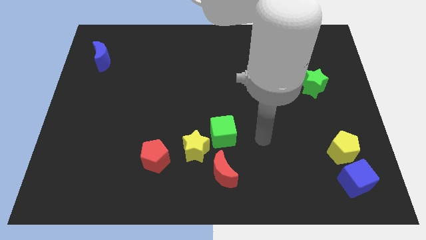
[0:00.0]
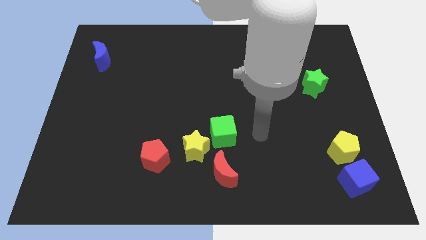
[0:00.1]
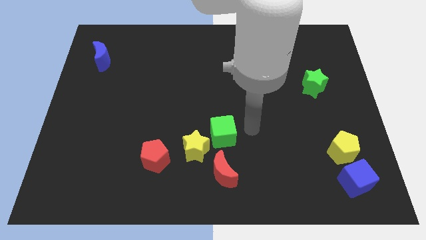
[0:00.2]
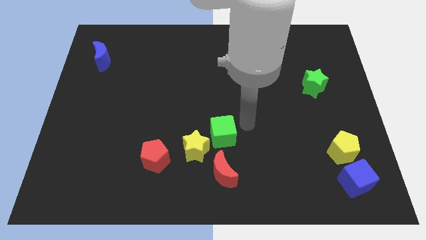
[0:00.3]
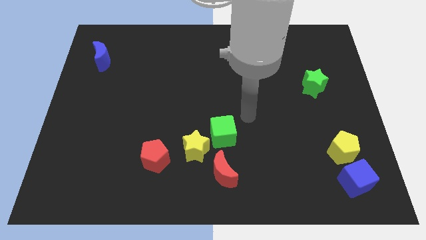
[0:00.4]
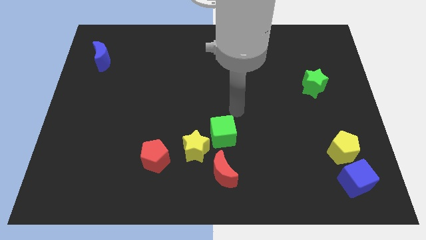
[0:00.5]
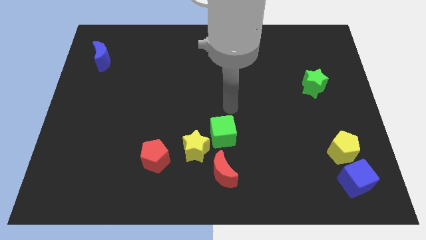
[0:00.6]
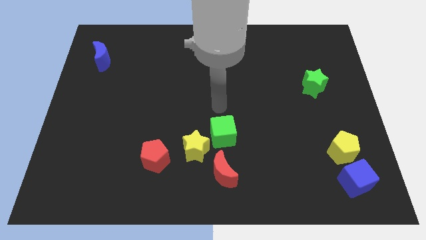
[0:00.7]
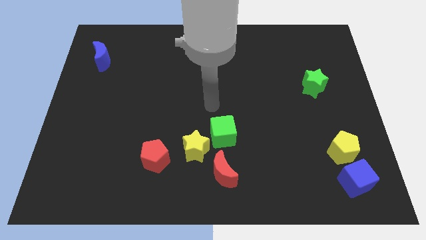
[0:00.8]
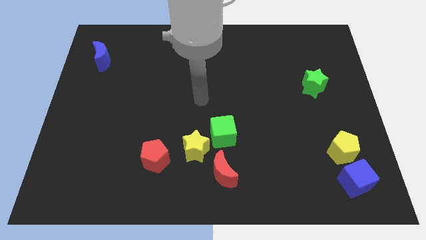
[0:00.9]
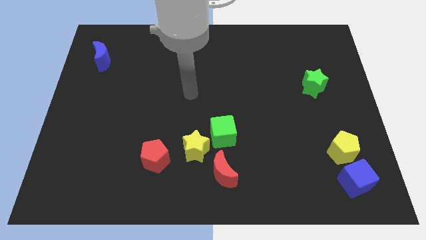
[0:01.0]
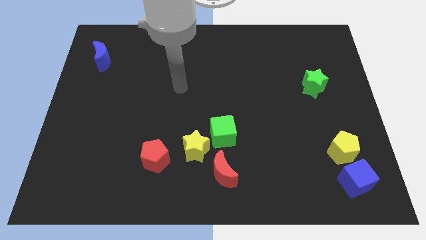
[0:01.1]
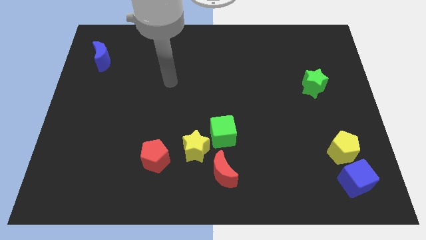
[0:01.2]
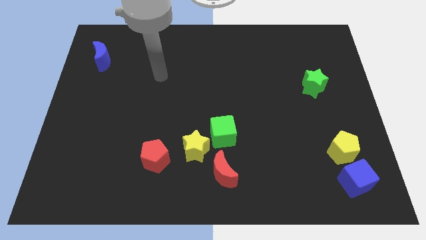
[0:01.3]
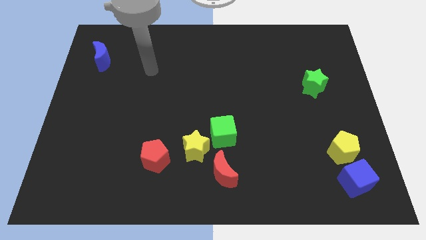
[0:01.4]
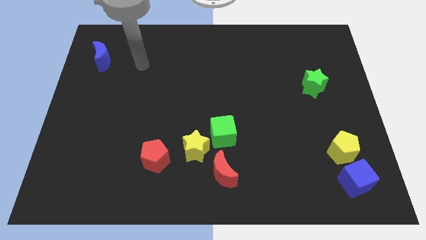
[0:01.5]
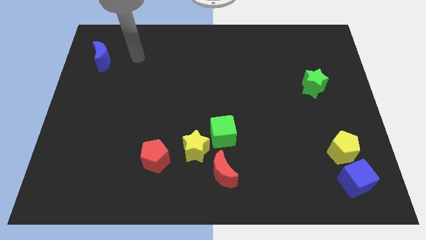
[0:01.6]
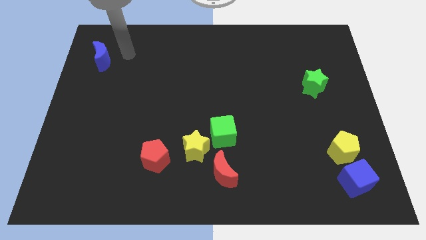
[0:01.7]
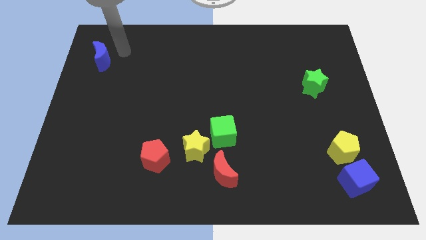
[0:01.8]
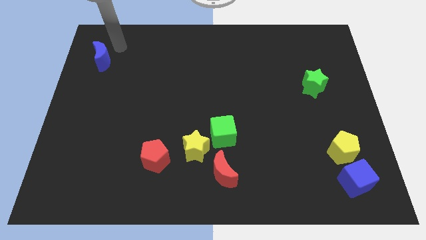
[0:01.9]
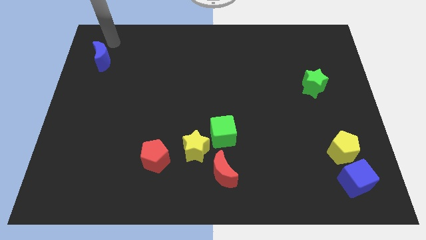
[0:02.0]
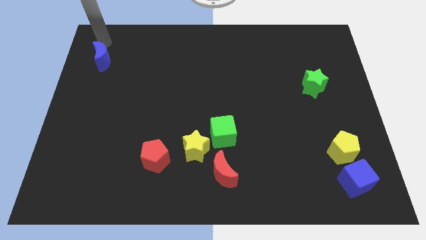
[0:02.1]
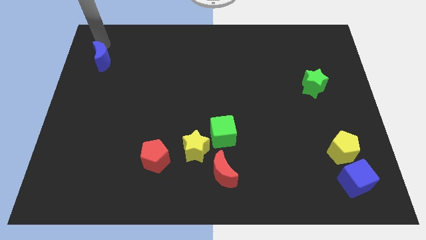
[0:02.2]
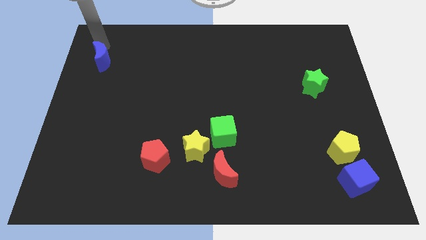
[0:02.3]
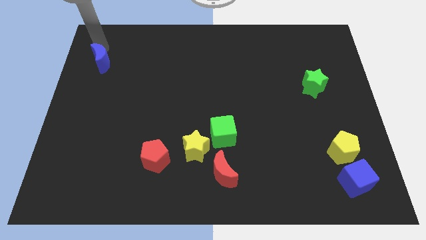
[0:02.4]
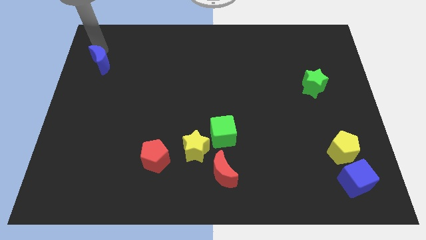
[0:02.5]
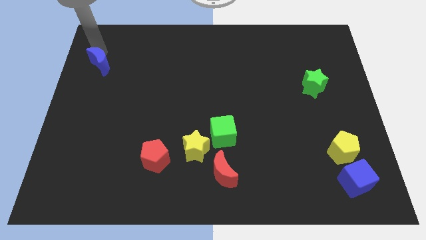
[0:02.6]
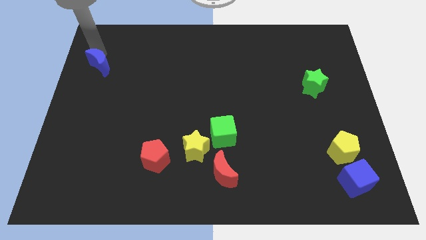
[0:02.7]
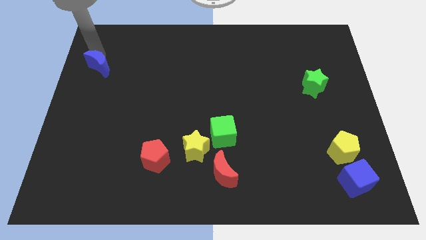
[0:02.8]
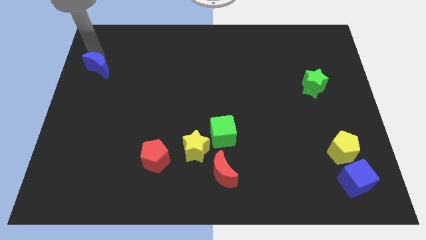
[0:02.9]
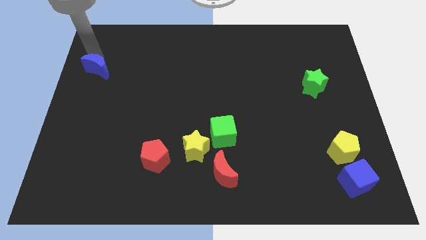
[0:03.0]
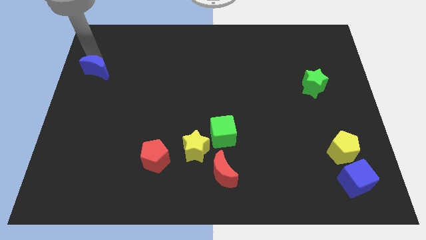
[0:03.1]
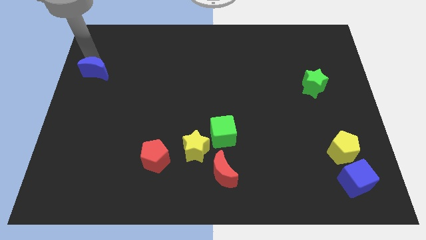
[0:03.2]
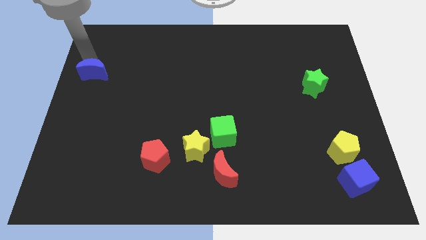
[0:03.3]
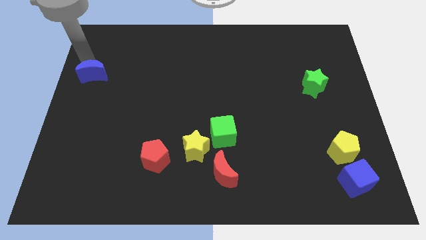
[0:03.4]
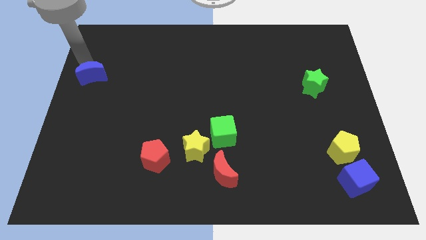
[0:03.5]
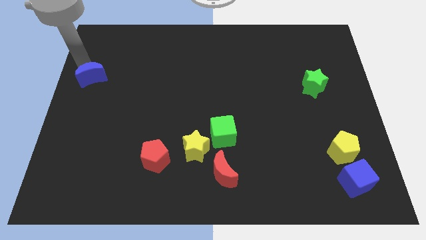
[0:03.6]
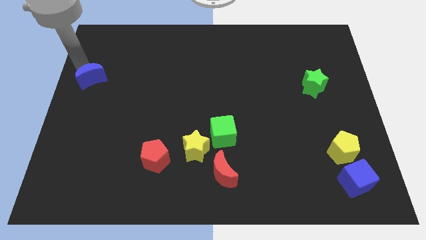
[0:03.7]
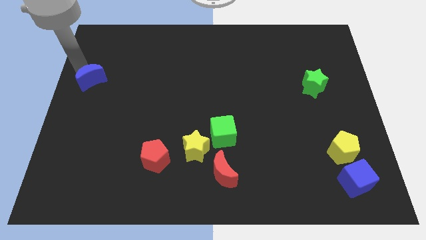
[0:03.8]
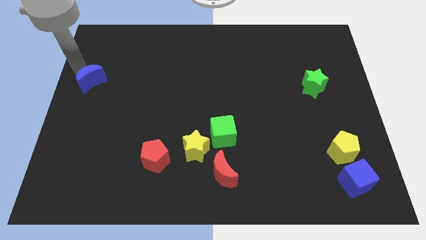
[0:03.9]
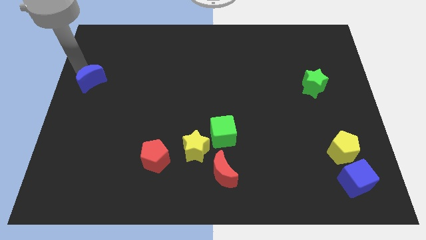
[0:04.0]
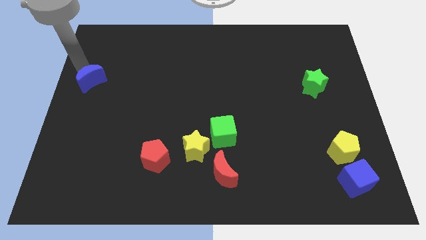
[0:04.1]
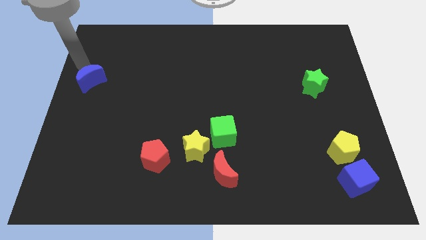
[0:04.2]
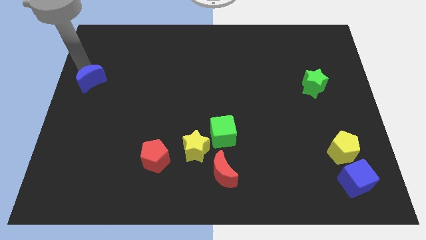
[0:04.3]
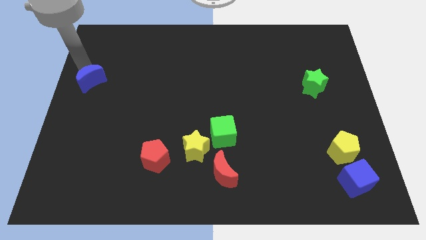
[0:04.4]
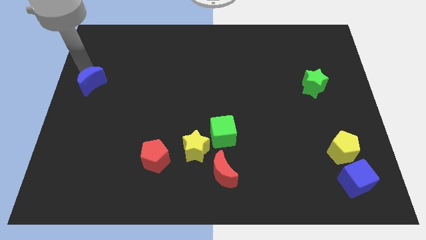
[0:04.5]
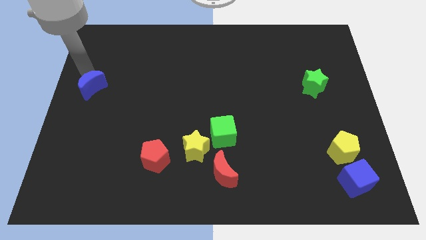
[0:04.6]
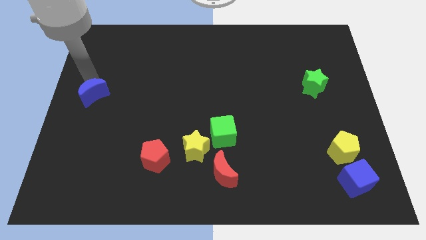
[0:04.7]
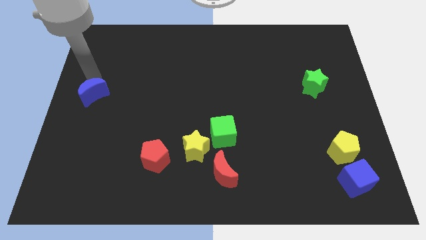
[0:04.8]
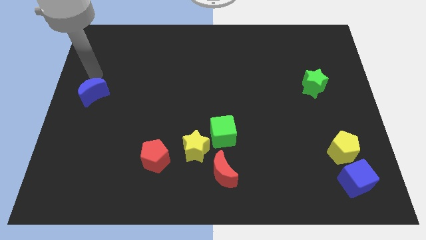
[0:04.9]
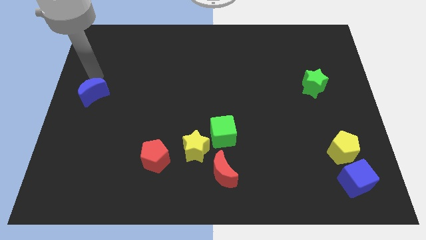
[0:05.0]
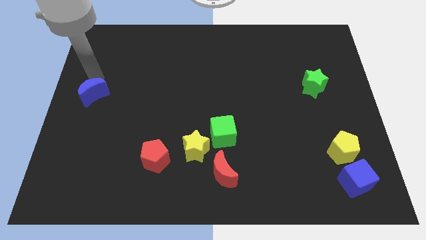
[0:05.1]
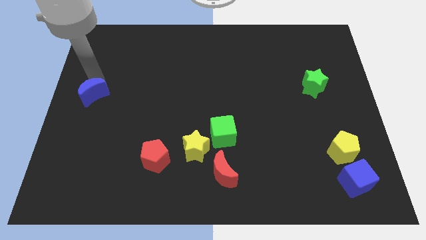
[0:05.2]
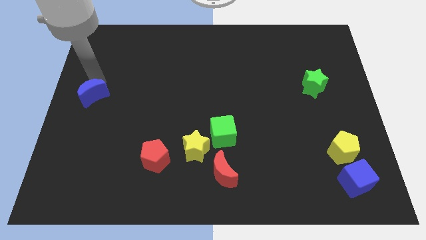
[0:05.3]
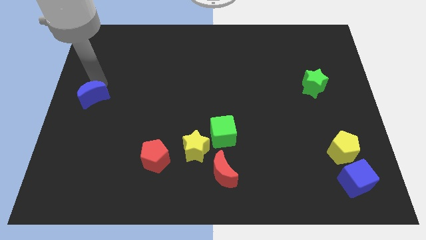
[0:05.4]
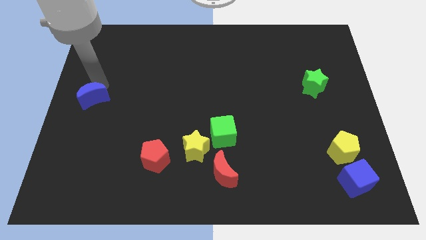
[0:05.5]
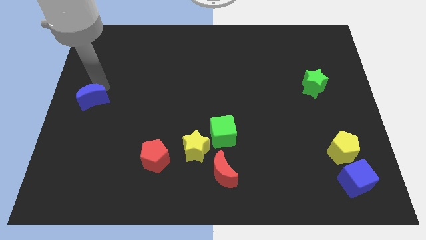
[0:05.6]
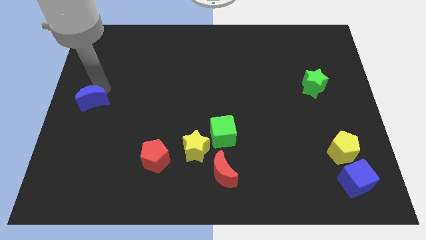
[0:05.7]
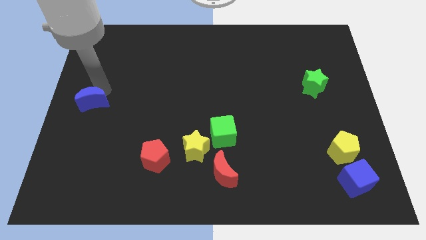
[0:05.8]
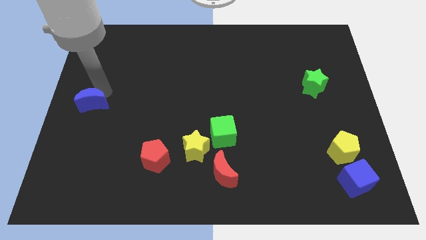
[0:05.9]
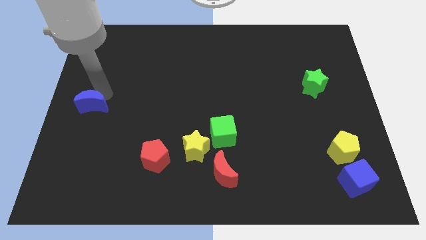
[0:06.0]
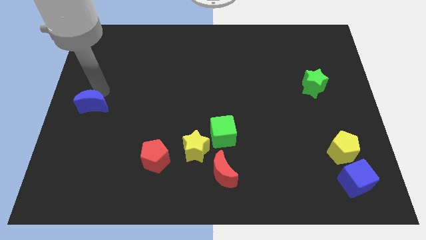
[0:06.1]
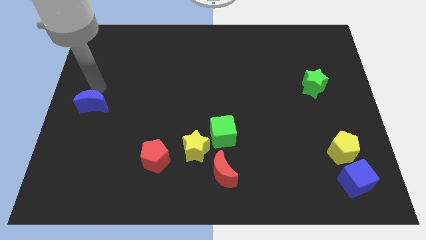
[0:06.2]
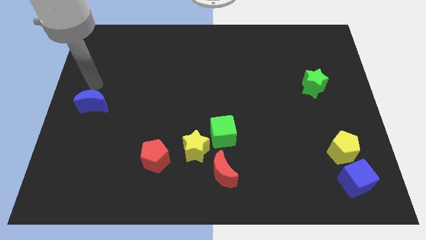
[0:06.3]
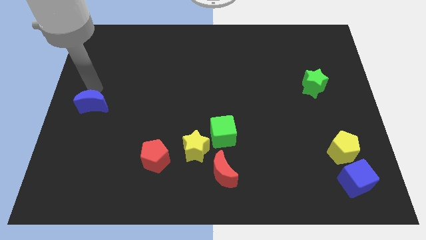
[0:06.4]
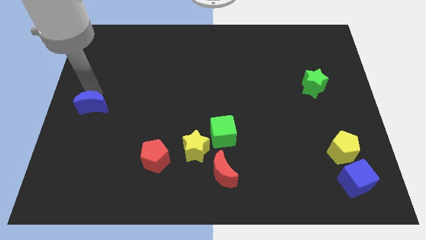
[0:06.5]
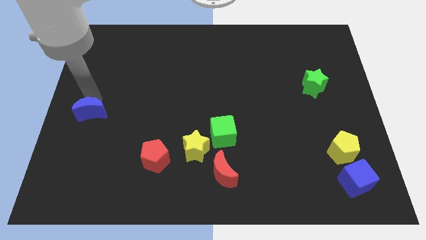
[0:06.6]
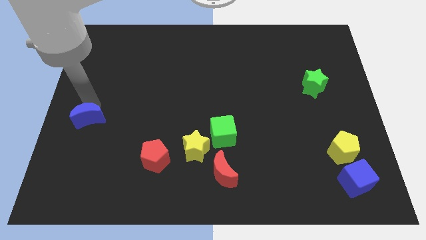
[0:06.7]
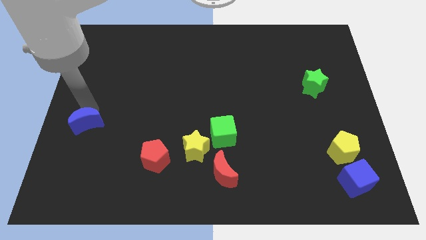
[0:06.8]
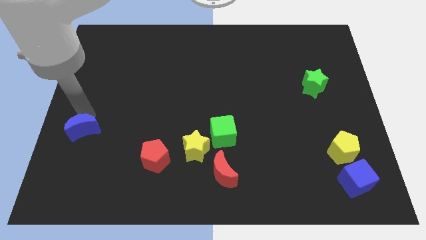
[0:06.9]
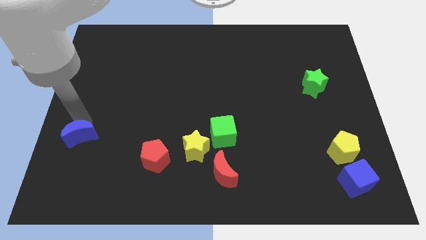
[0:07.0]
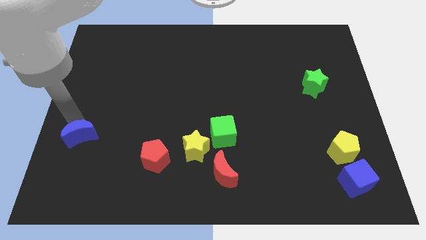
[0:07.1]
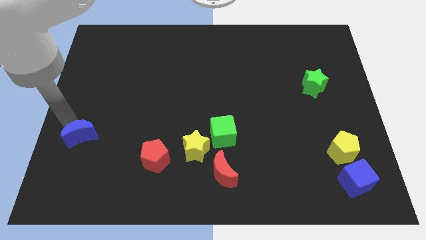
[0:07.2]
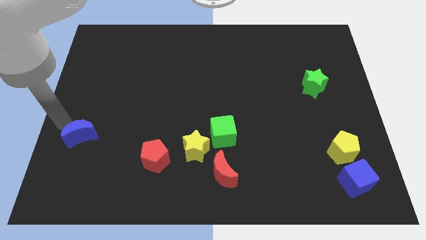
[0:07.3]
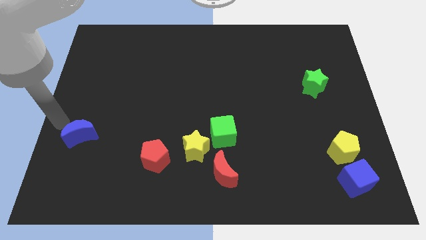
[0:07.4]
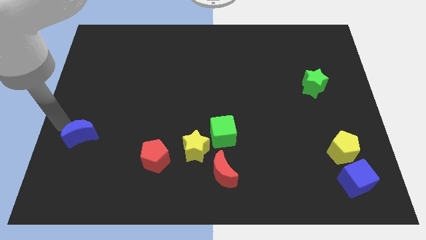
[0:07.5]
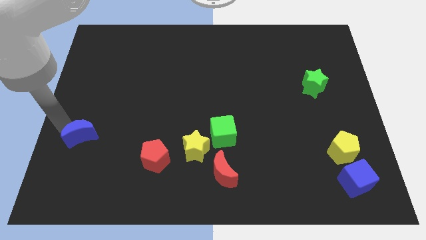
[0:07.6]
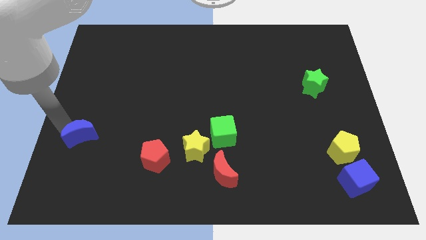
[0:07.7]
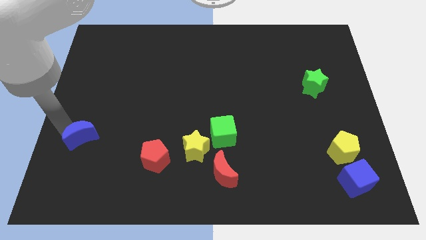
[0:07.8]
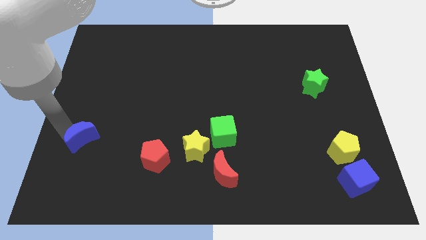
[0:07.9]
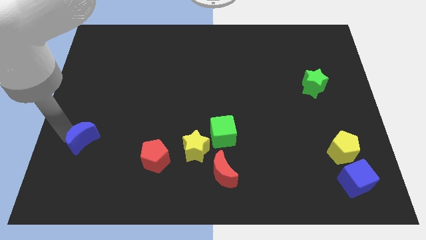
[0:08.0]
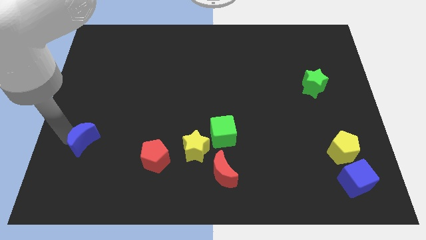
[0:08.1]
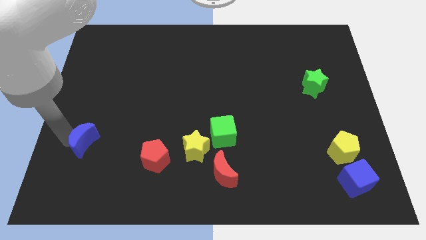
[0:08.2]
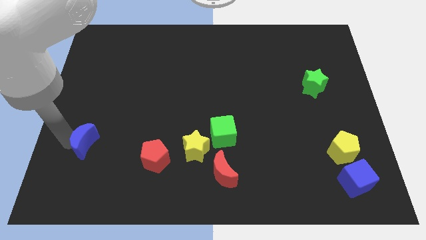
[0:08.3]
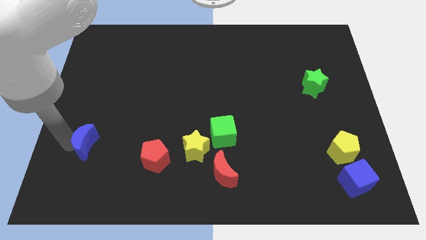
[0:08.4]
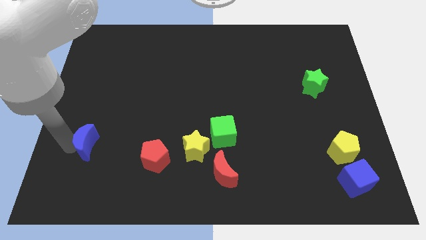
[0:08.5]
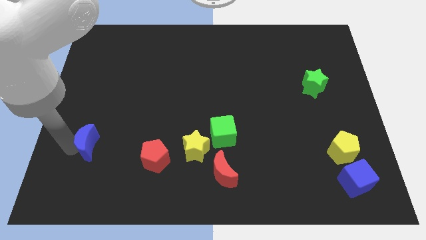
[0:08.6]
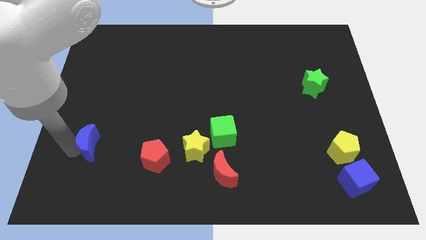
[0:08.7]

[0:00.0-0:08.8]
move the blue moon to the left side of the red pentagon
